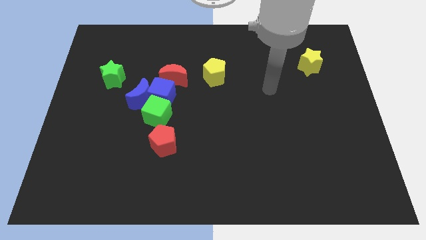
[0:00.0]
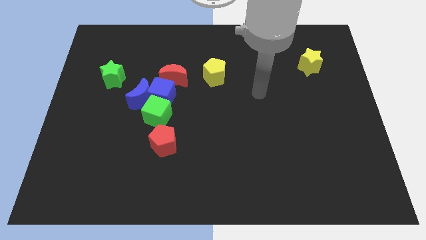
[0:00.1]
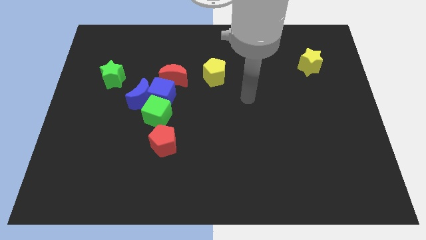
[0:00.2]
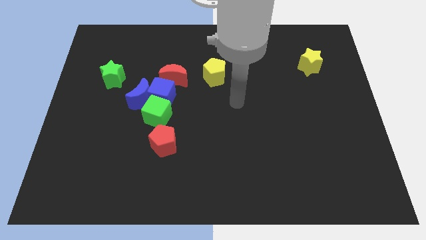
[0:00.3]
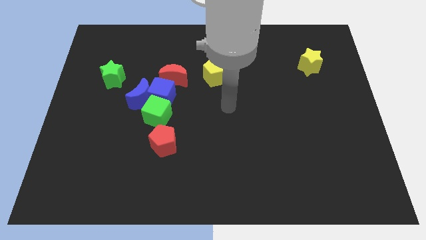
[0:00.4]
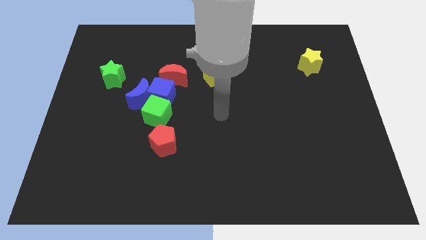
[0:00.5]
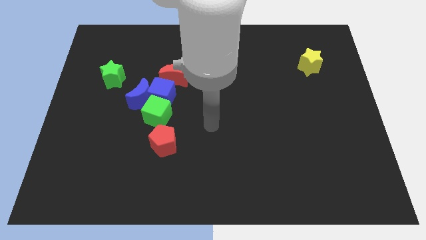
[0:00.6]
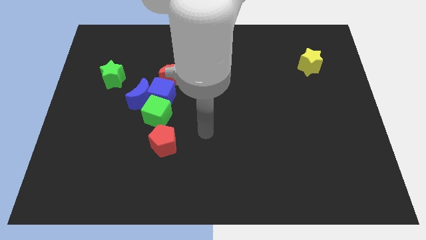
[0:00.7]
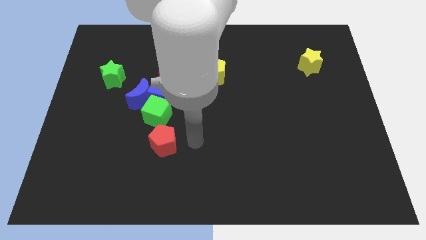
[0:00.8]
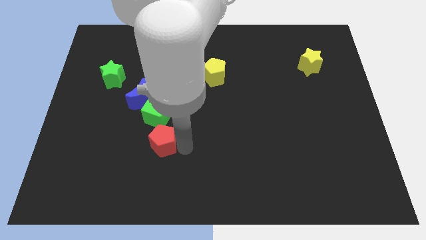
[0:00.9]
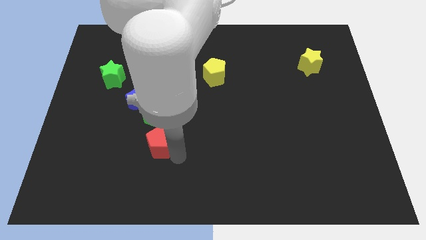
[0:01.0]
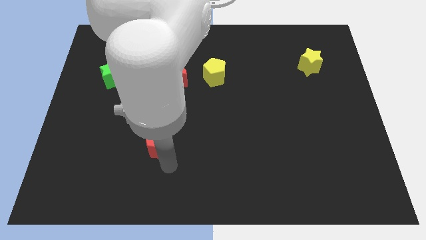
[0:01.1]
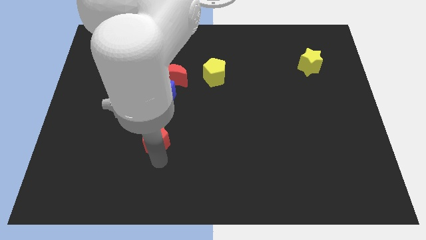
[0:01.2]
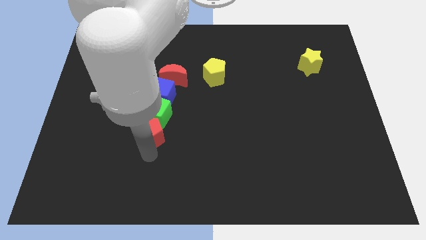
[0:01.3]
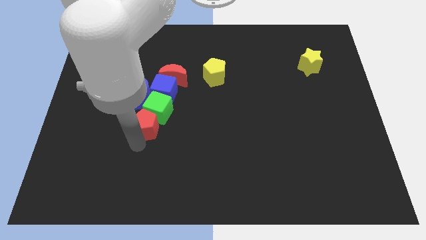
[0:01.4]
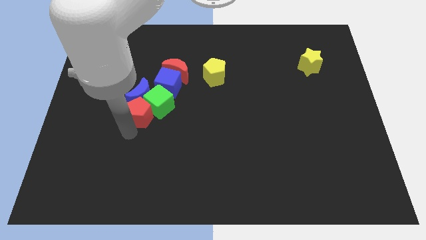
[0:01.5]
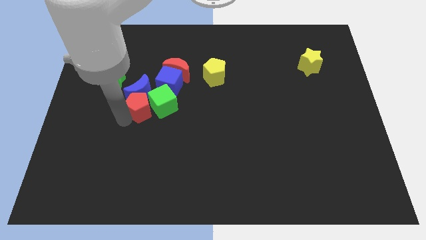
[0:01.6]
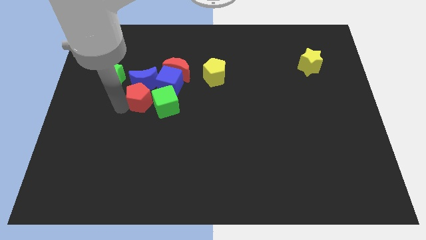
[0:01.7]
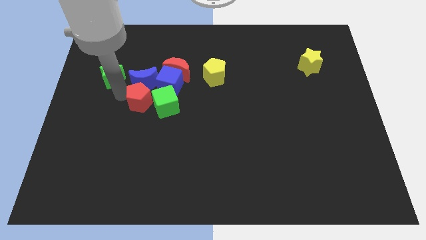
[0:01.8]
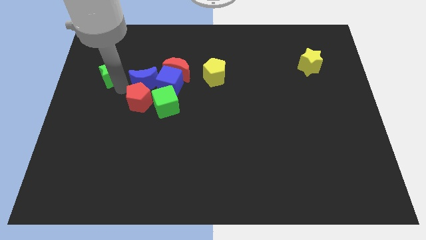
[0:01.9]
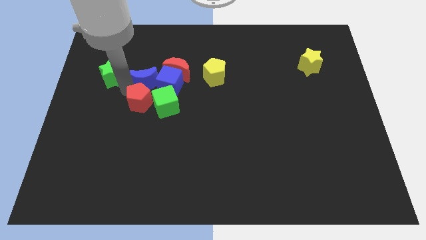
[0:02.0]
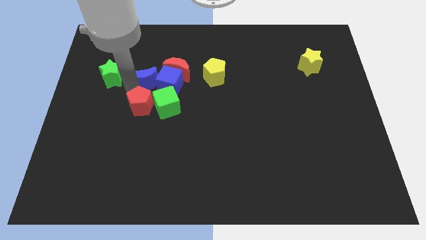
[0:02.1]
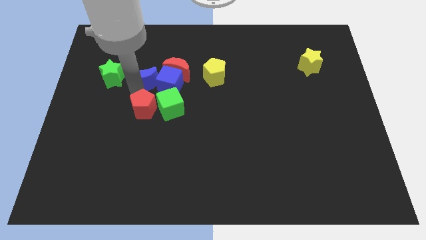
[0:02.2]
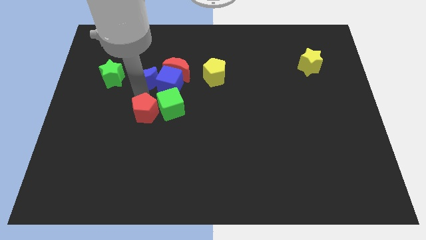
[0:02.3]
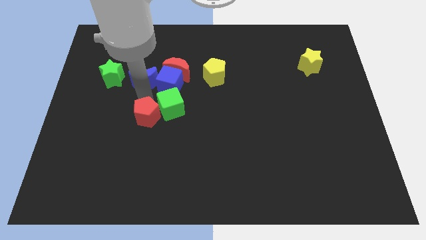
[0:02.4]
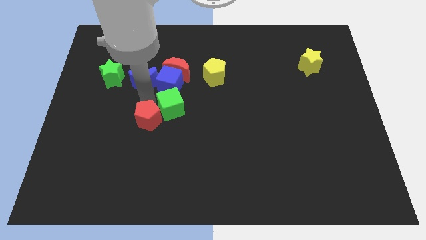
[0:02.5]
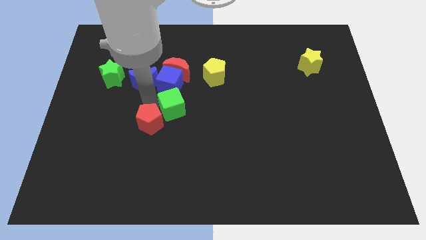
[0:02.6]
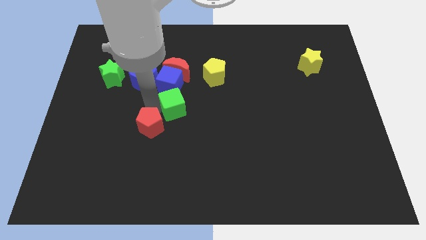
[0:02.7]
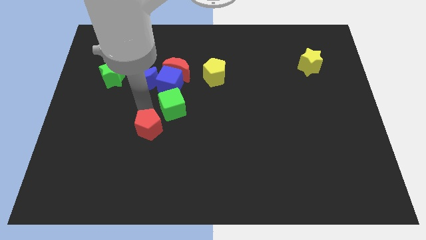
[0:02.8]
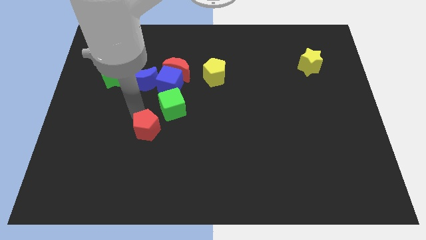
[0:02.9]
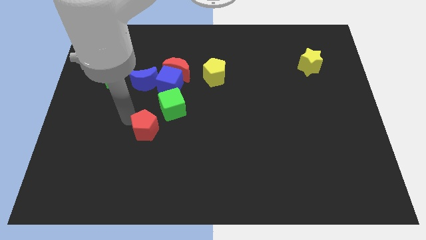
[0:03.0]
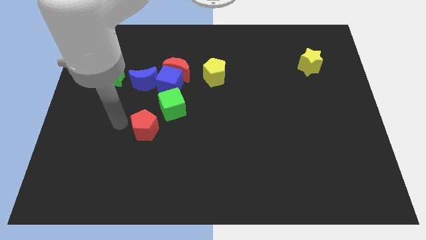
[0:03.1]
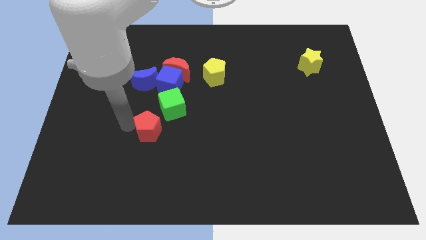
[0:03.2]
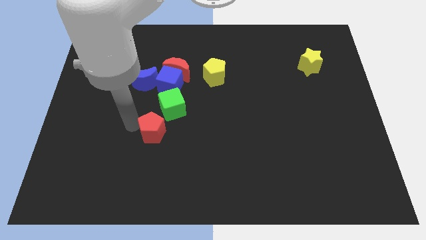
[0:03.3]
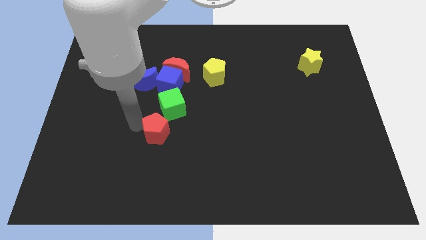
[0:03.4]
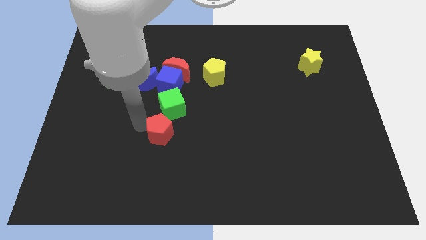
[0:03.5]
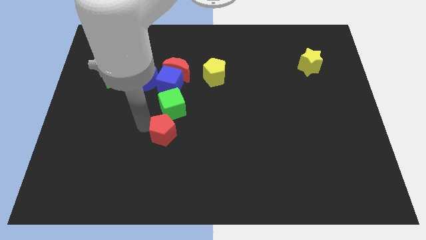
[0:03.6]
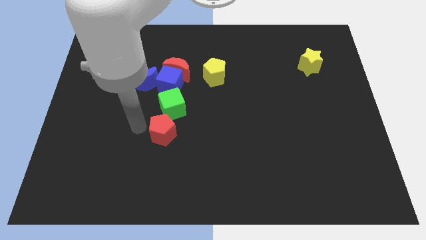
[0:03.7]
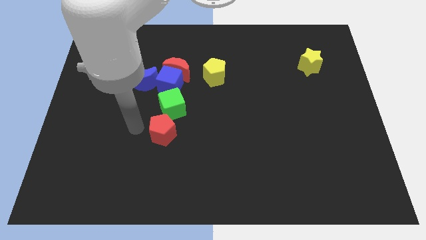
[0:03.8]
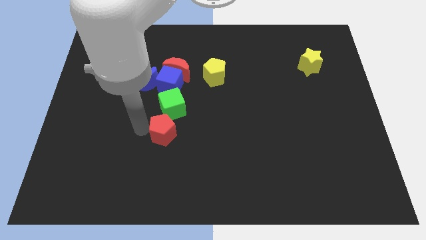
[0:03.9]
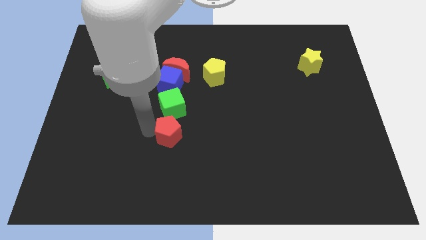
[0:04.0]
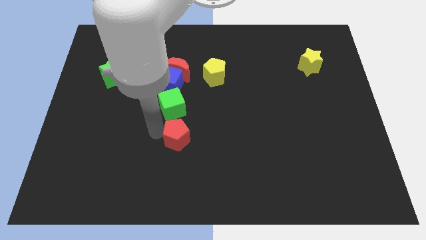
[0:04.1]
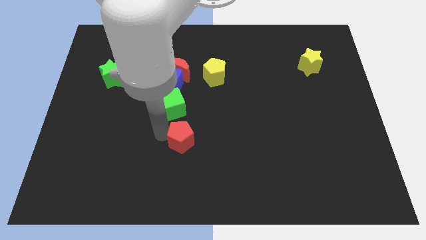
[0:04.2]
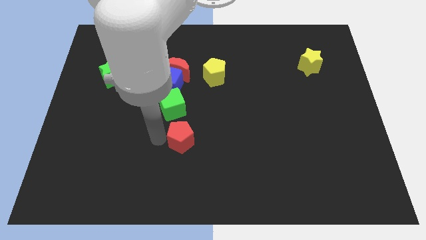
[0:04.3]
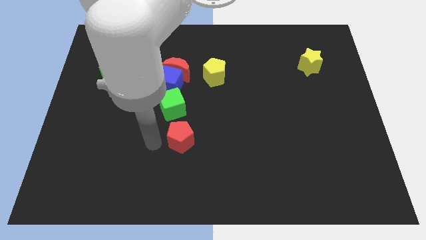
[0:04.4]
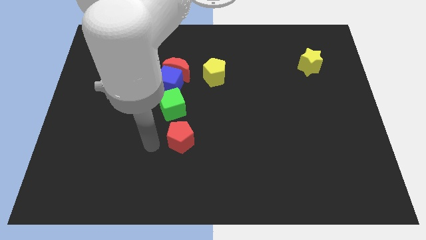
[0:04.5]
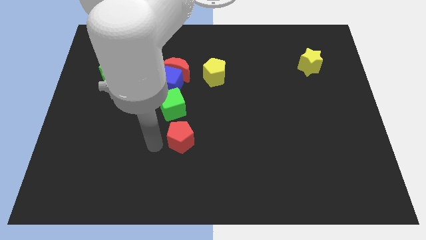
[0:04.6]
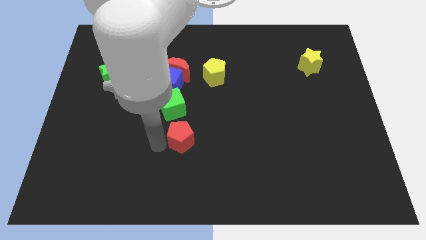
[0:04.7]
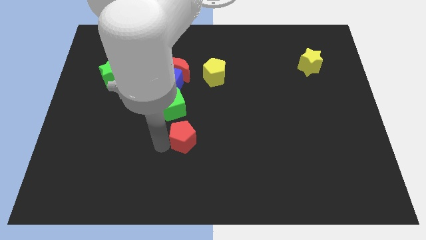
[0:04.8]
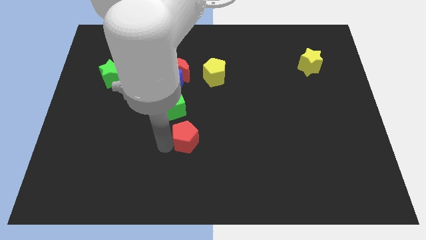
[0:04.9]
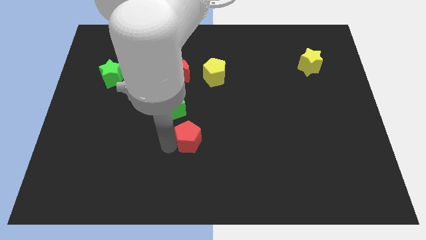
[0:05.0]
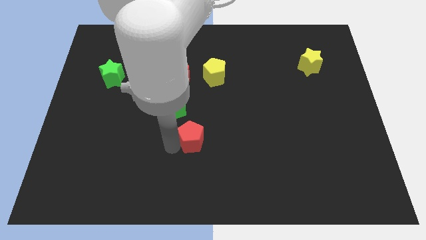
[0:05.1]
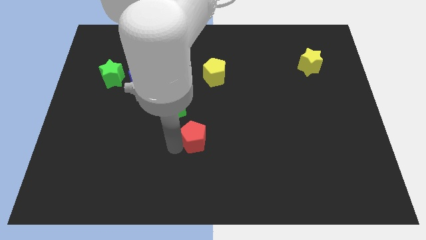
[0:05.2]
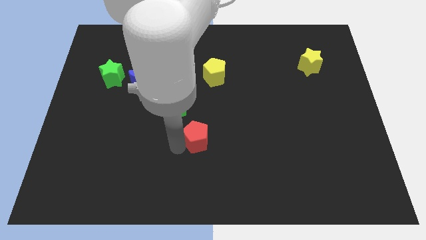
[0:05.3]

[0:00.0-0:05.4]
push the red pentagon a bit right

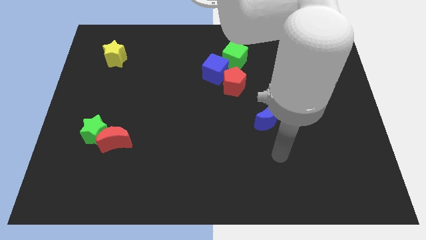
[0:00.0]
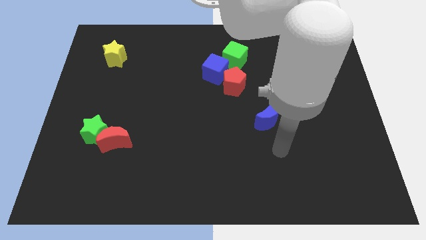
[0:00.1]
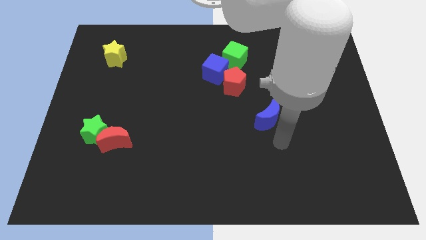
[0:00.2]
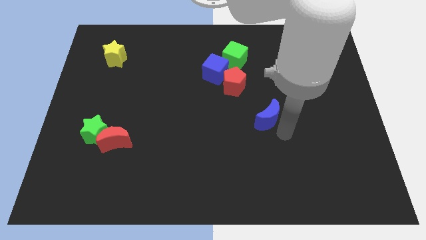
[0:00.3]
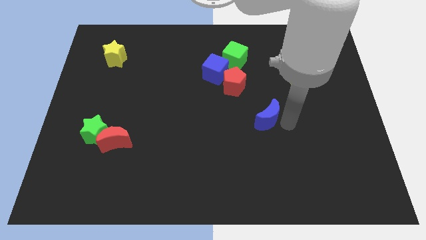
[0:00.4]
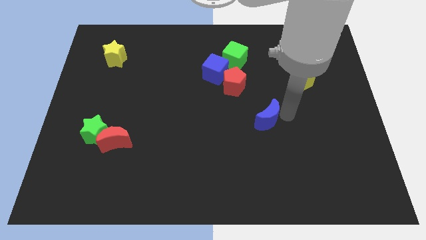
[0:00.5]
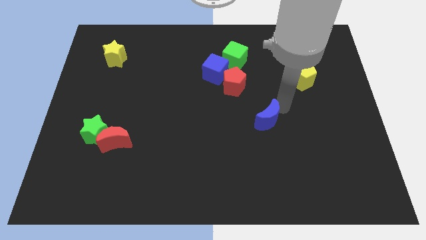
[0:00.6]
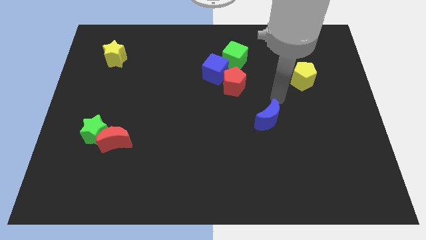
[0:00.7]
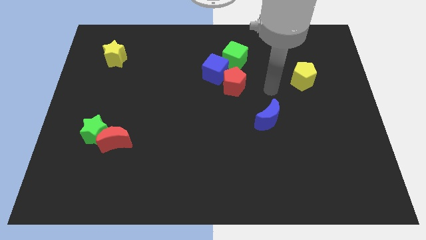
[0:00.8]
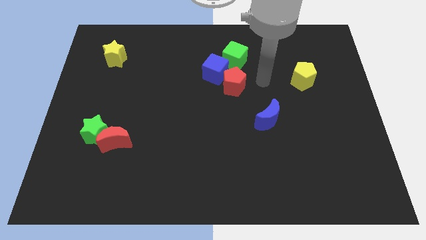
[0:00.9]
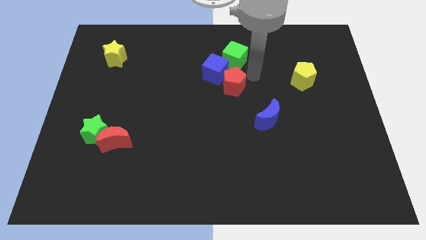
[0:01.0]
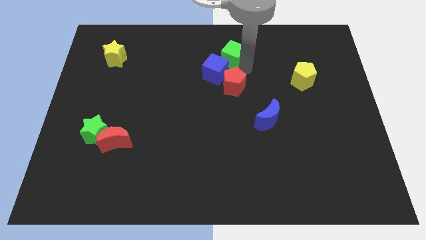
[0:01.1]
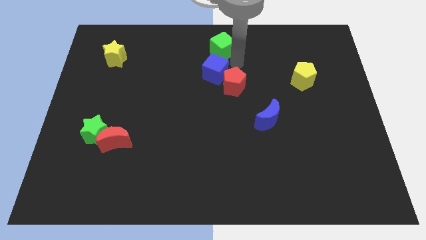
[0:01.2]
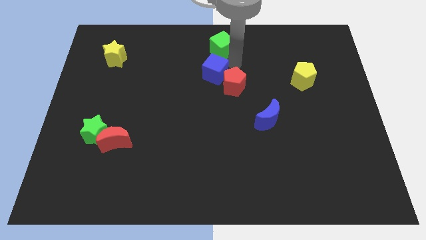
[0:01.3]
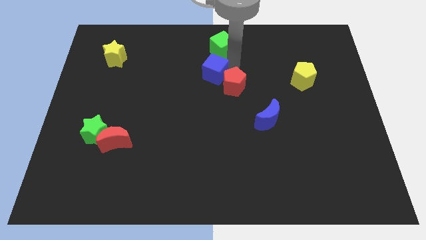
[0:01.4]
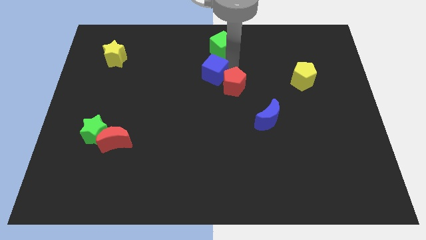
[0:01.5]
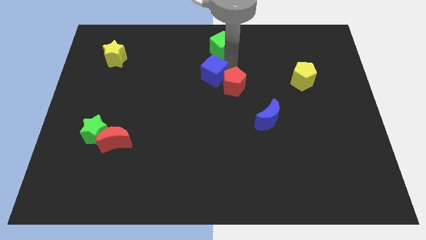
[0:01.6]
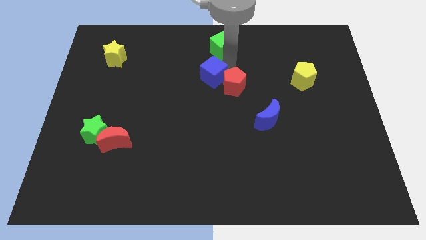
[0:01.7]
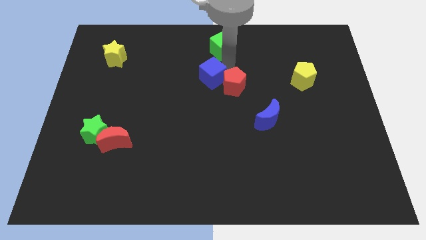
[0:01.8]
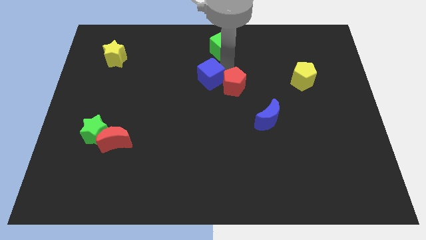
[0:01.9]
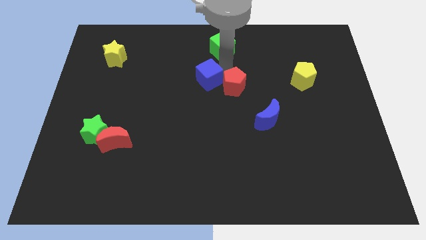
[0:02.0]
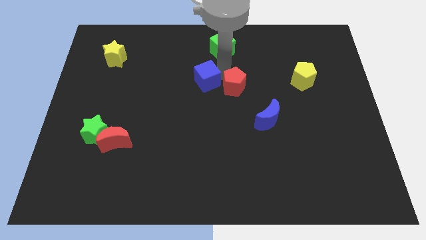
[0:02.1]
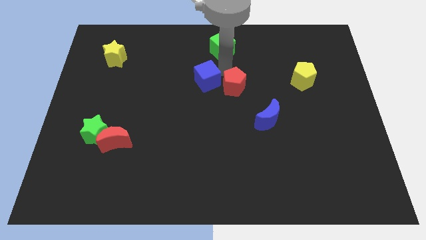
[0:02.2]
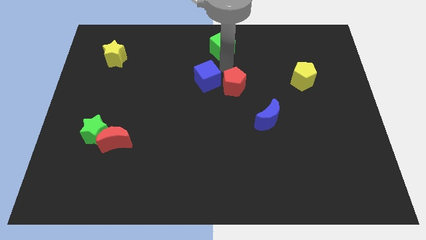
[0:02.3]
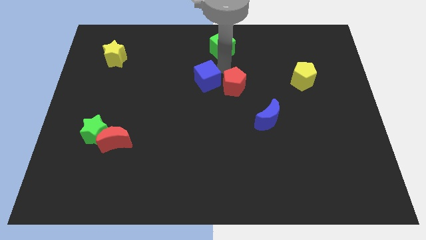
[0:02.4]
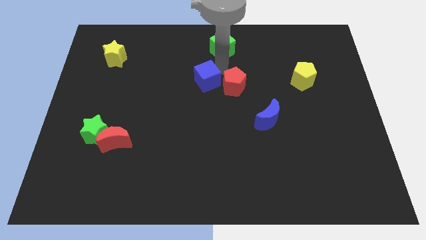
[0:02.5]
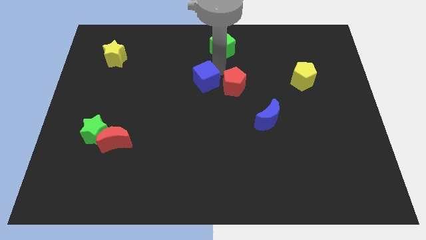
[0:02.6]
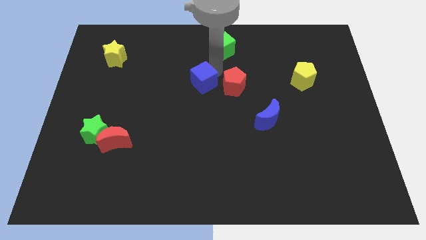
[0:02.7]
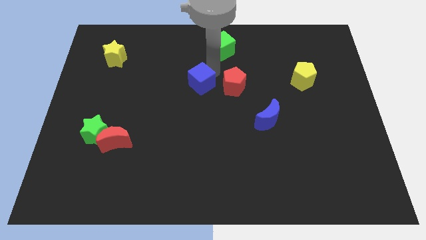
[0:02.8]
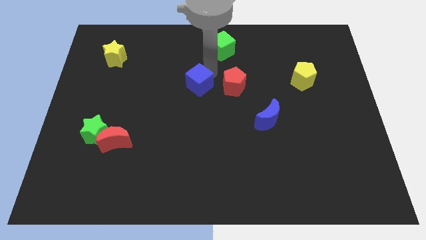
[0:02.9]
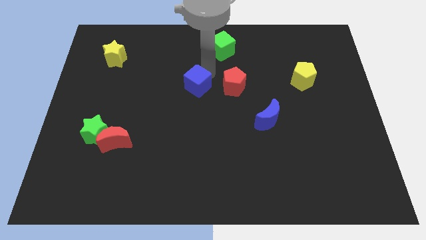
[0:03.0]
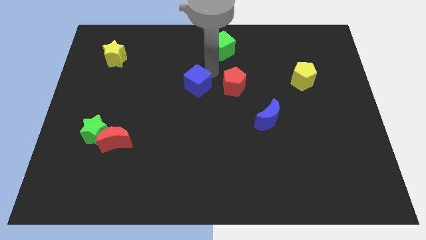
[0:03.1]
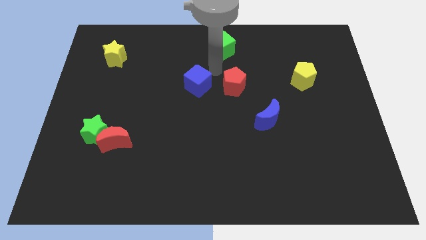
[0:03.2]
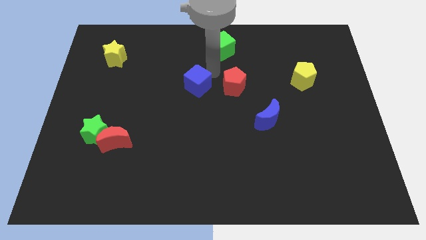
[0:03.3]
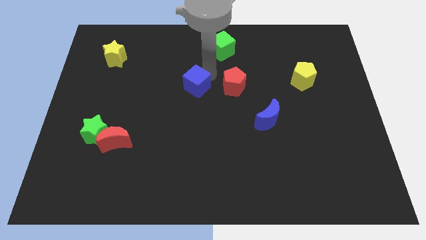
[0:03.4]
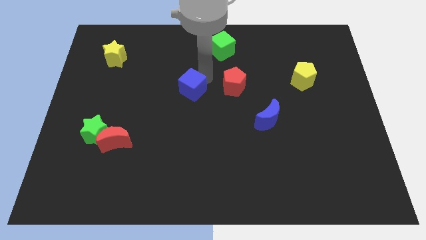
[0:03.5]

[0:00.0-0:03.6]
push the blue cube a little down and to the left
